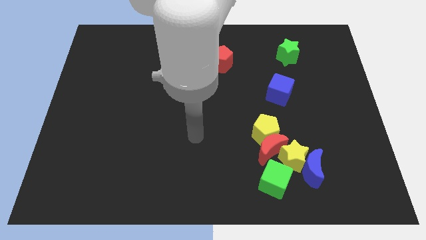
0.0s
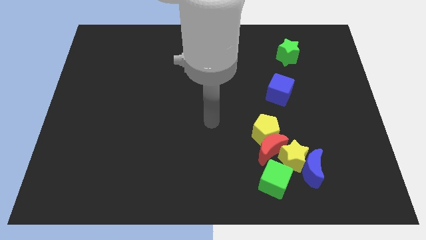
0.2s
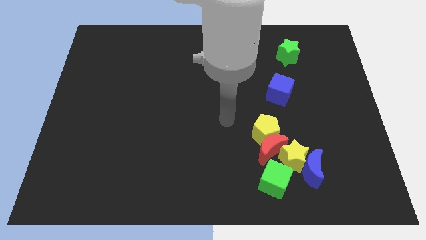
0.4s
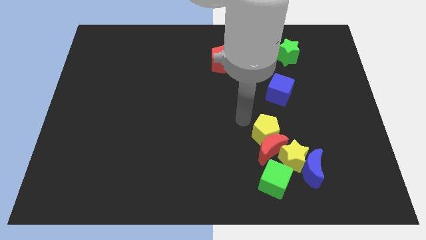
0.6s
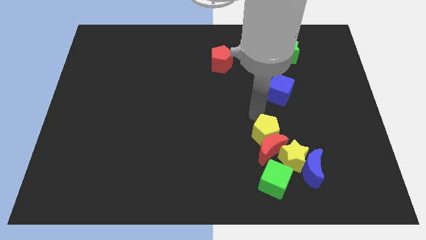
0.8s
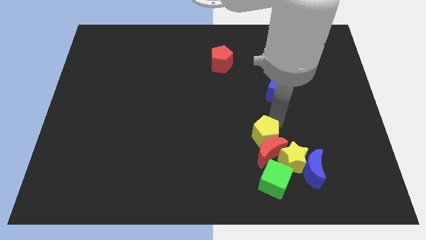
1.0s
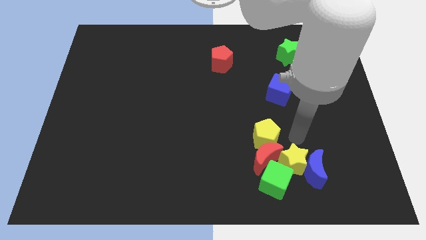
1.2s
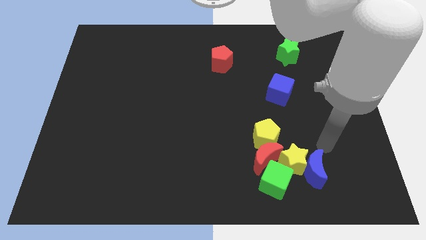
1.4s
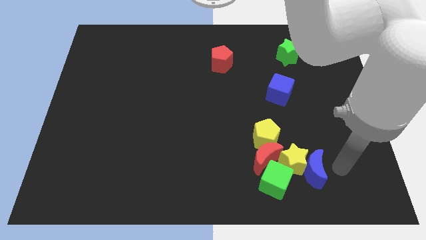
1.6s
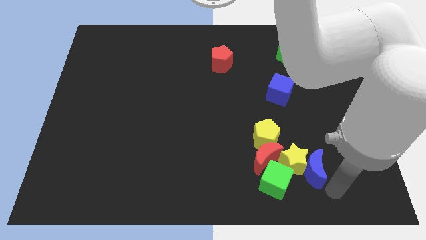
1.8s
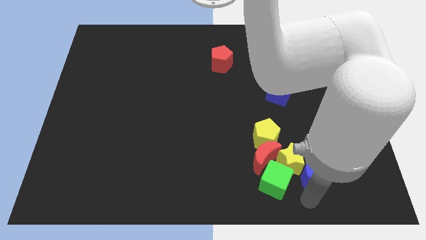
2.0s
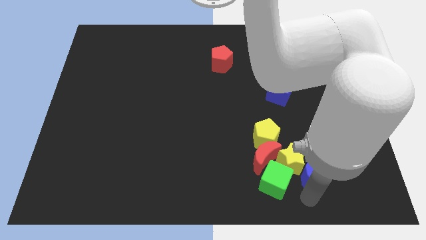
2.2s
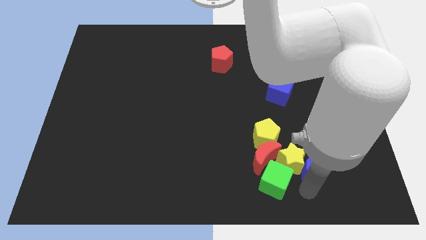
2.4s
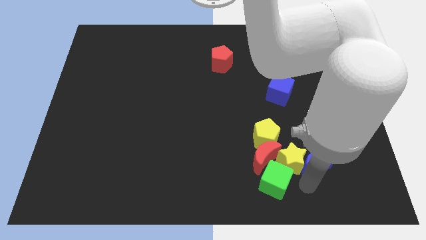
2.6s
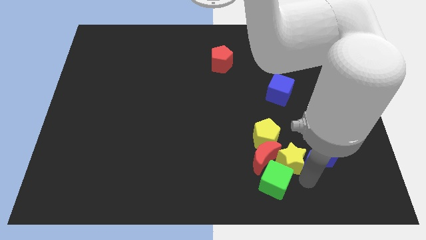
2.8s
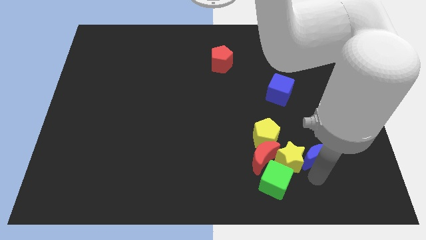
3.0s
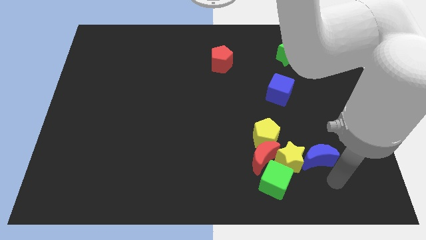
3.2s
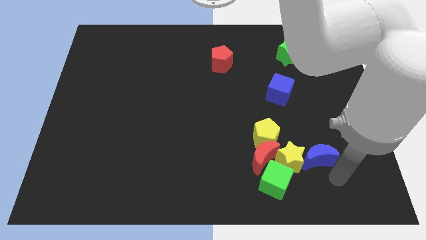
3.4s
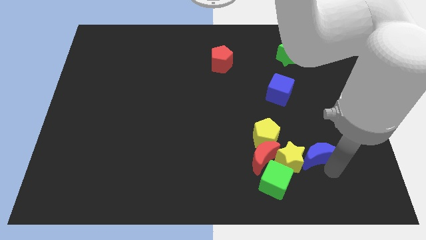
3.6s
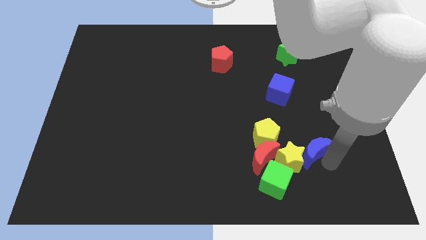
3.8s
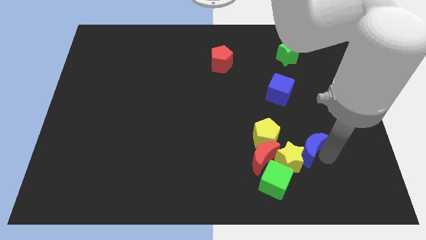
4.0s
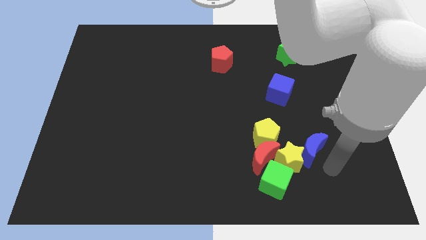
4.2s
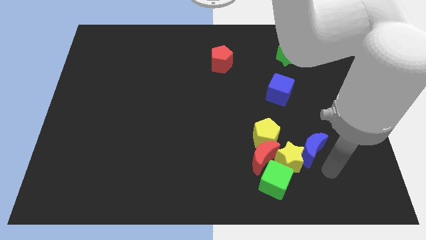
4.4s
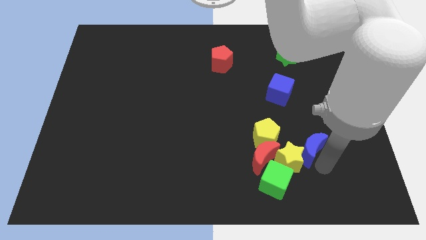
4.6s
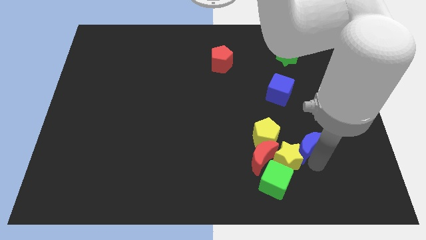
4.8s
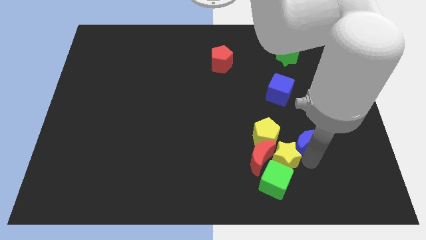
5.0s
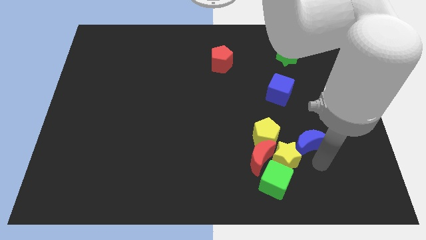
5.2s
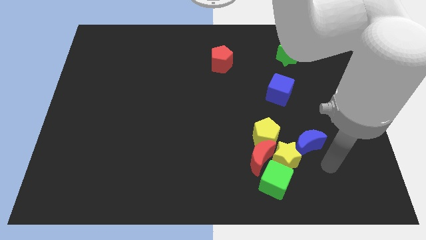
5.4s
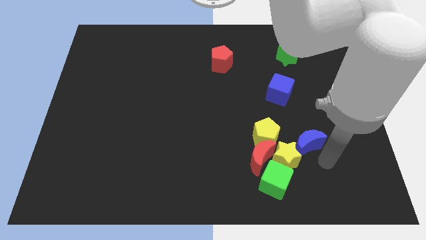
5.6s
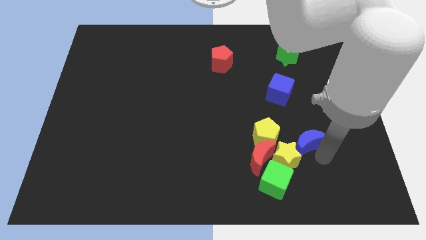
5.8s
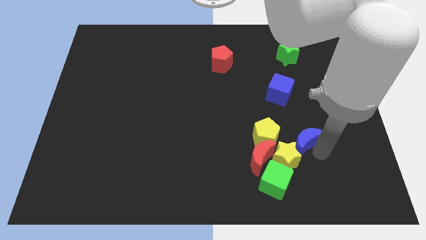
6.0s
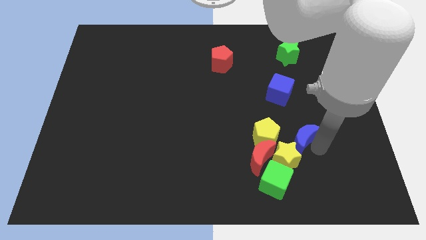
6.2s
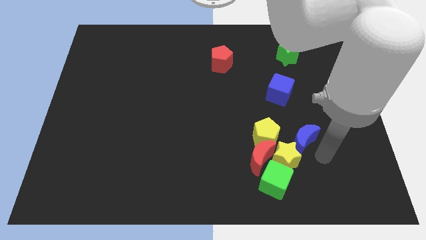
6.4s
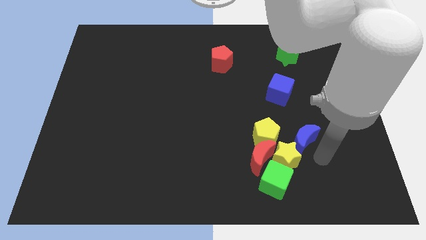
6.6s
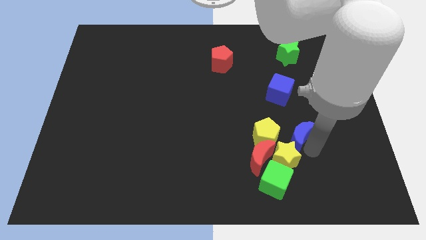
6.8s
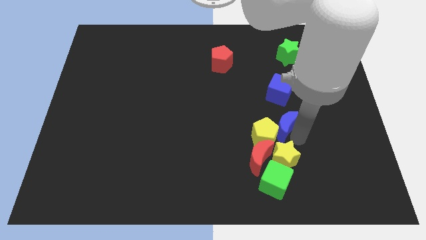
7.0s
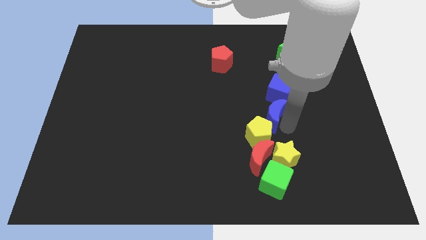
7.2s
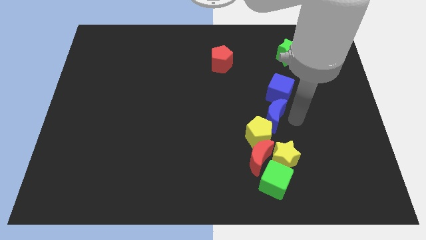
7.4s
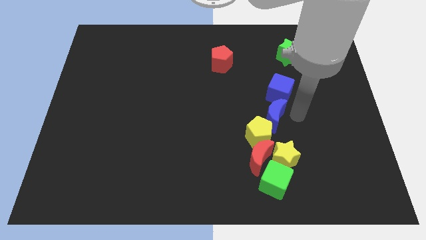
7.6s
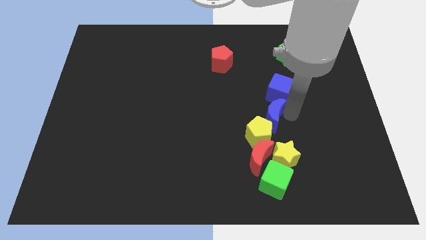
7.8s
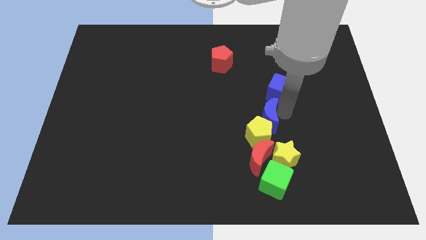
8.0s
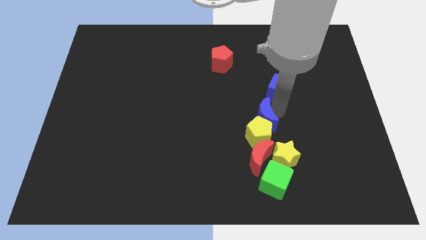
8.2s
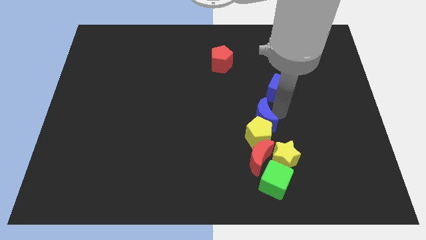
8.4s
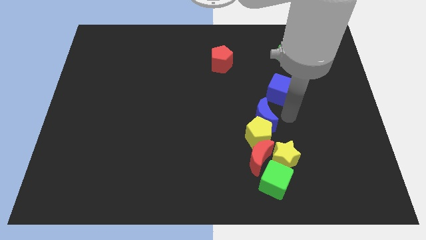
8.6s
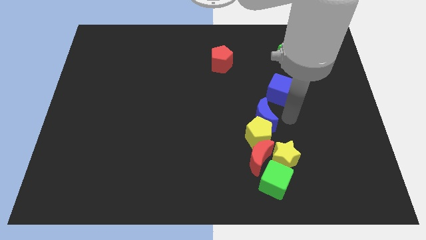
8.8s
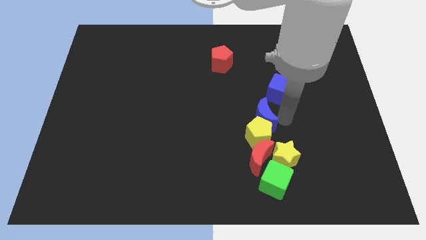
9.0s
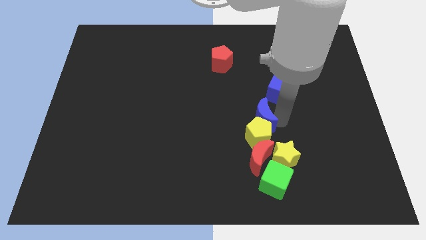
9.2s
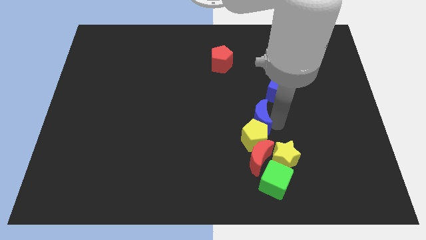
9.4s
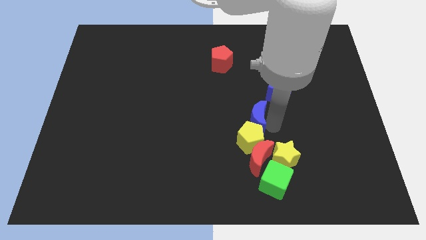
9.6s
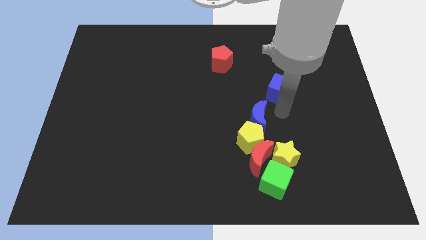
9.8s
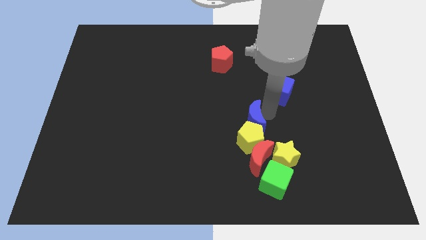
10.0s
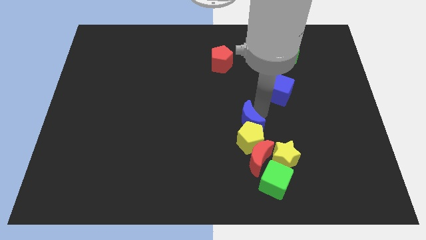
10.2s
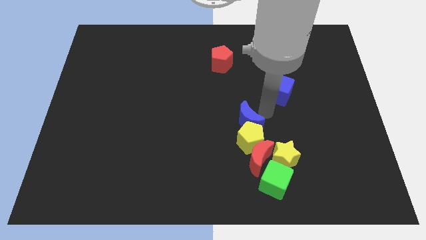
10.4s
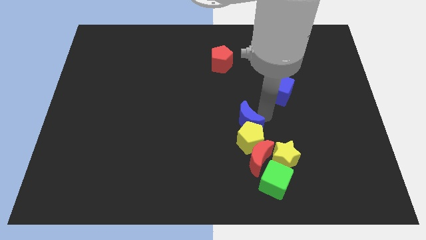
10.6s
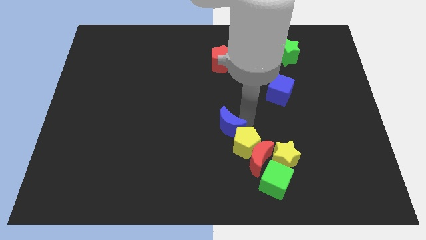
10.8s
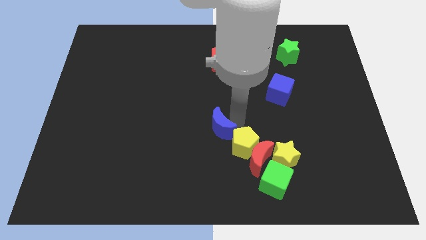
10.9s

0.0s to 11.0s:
slide the blue moon to the left side of the yellow pentagon

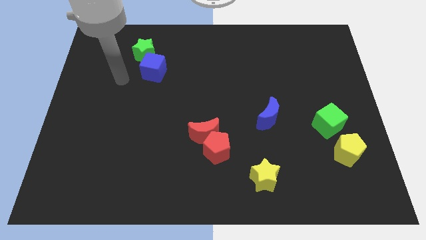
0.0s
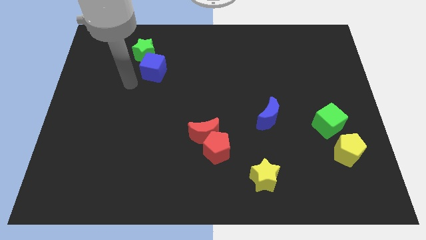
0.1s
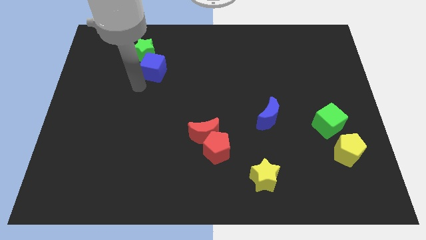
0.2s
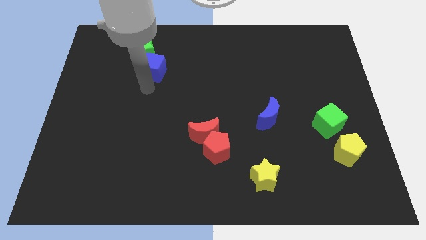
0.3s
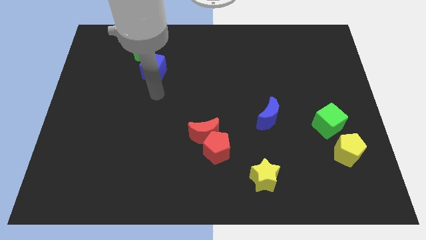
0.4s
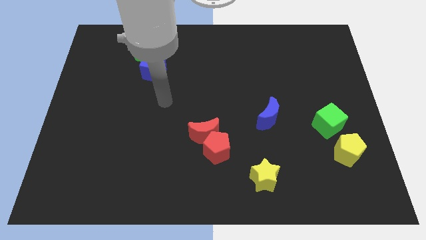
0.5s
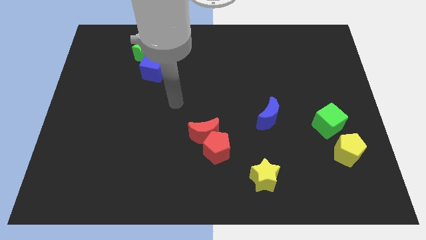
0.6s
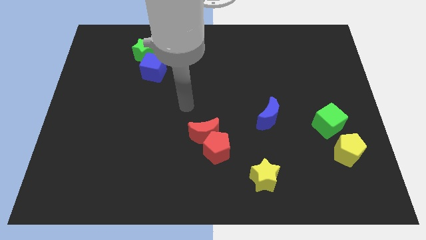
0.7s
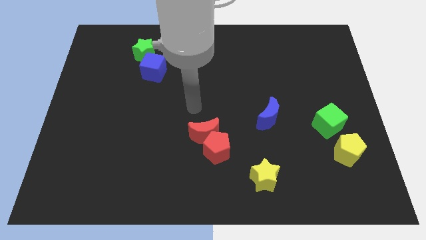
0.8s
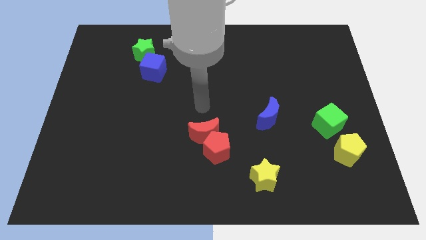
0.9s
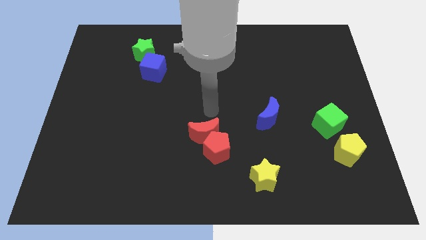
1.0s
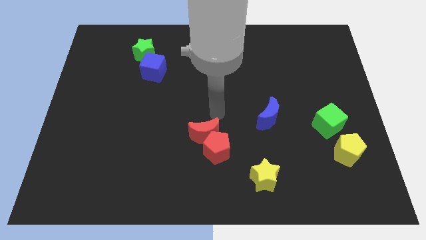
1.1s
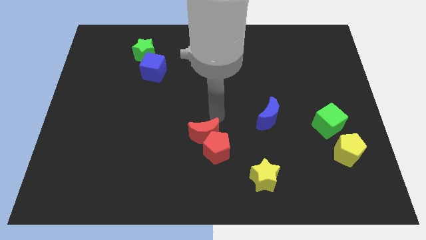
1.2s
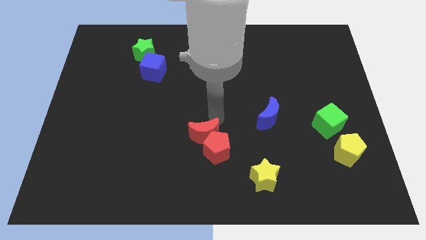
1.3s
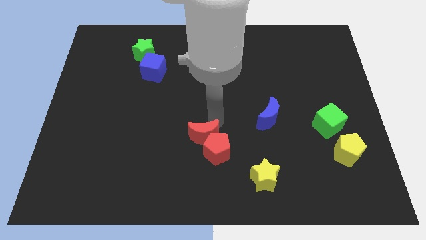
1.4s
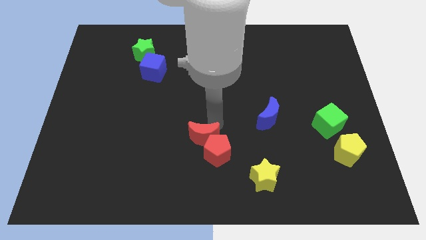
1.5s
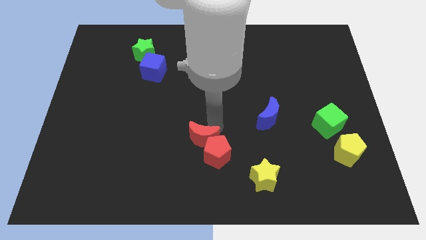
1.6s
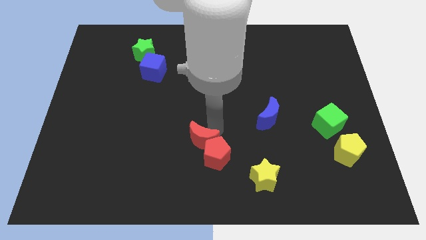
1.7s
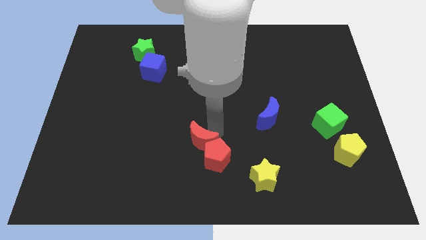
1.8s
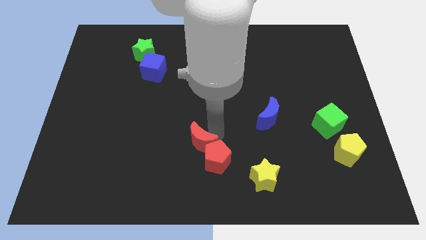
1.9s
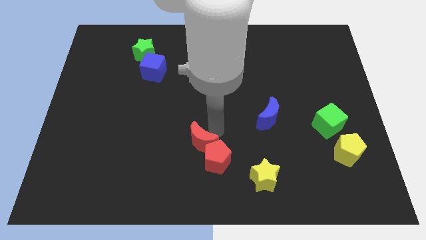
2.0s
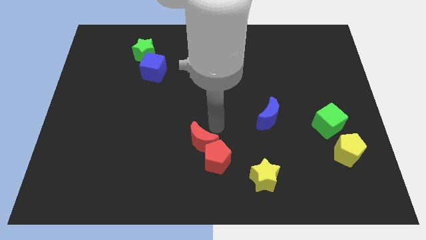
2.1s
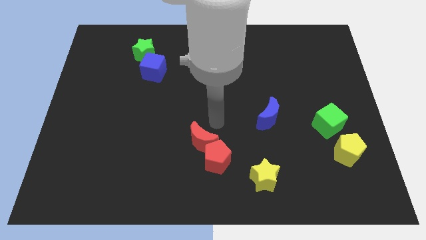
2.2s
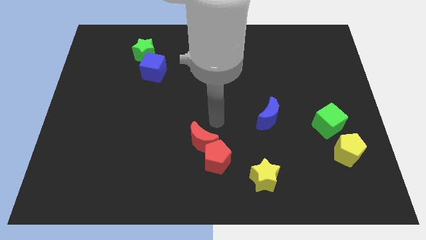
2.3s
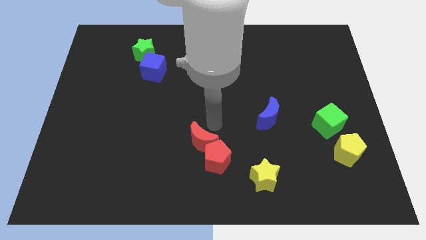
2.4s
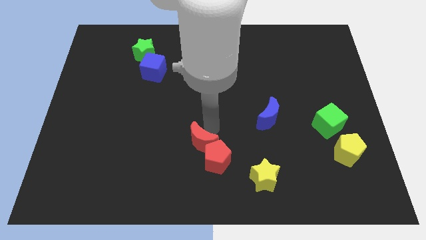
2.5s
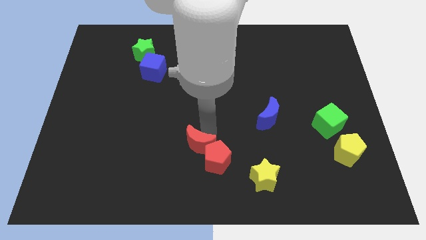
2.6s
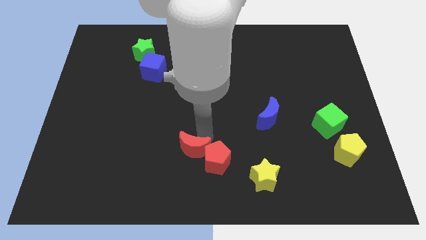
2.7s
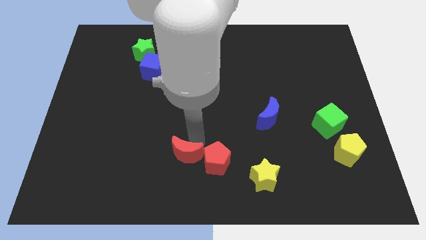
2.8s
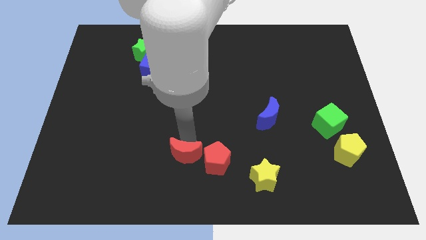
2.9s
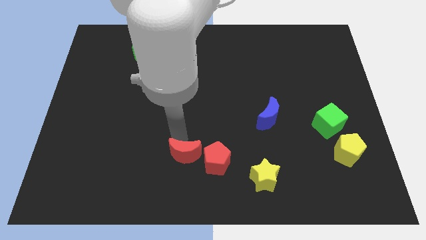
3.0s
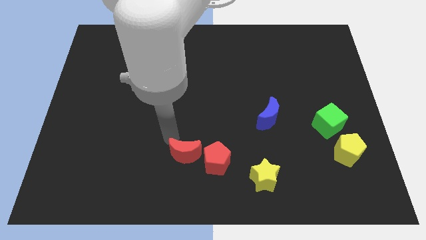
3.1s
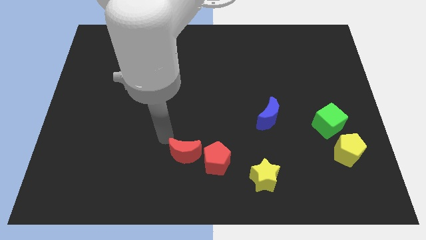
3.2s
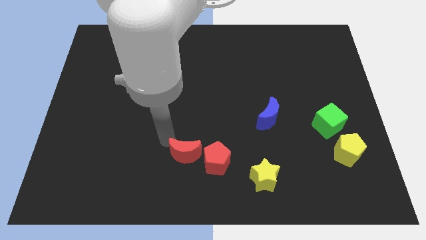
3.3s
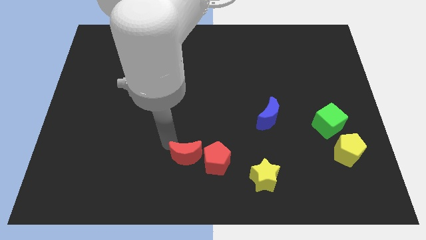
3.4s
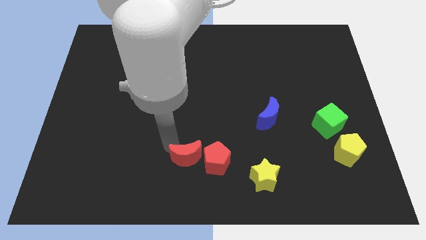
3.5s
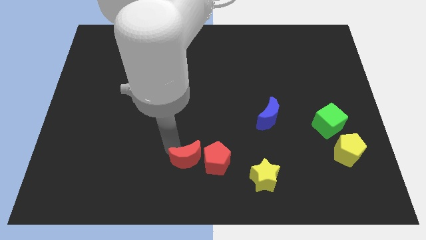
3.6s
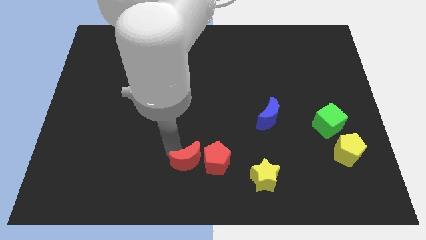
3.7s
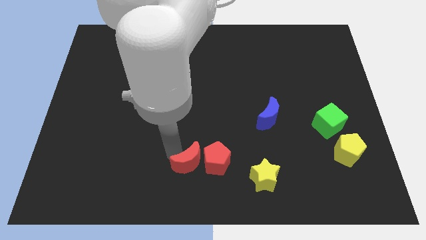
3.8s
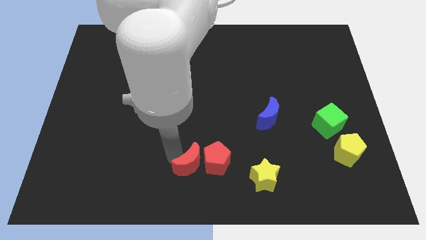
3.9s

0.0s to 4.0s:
slide the red moon to the left of the yellow star
